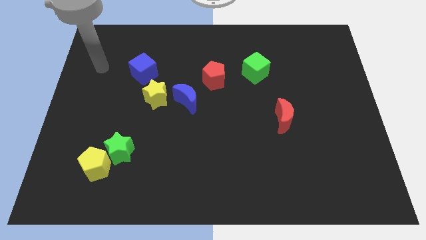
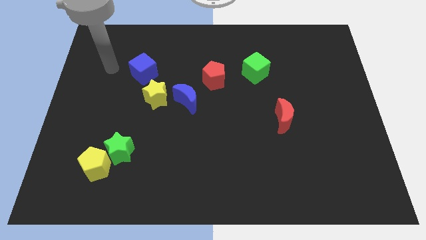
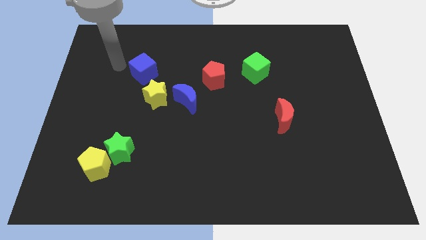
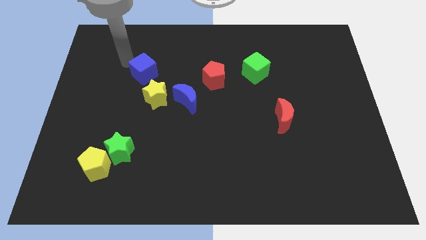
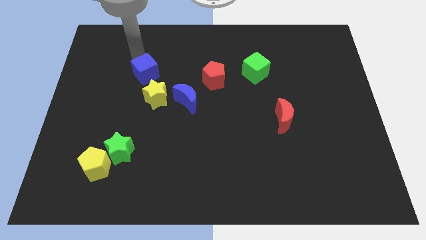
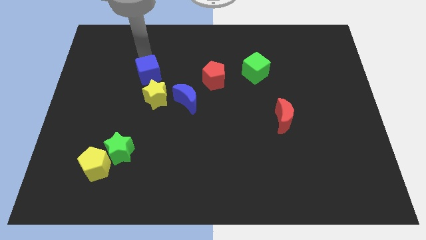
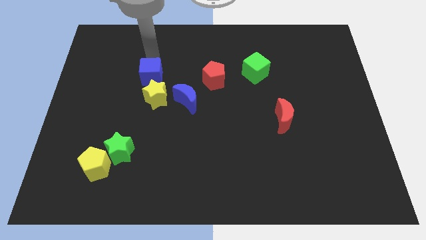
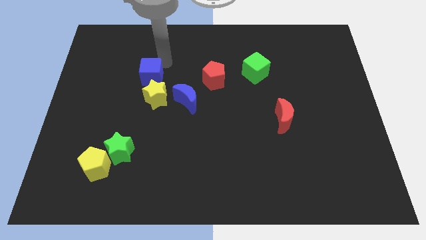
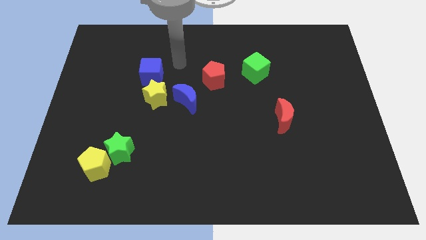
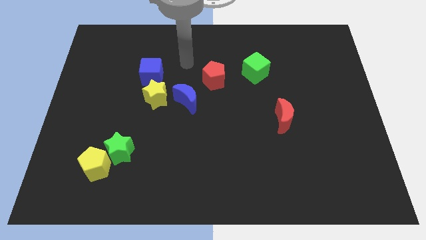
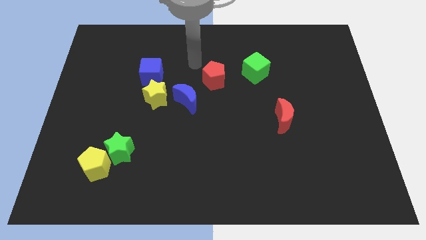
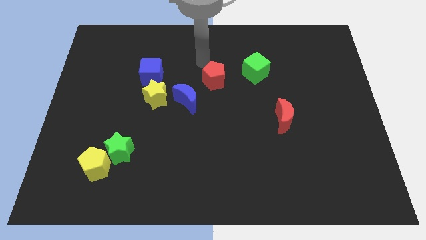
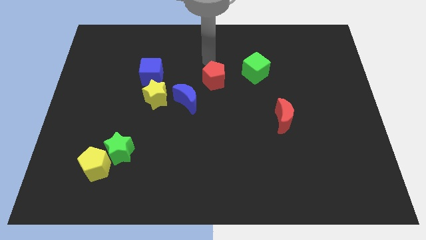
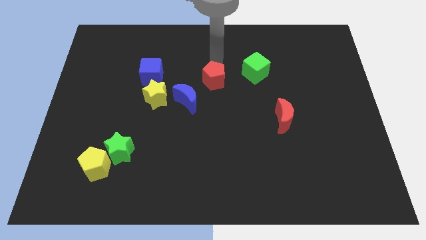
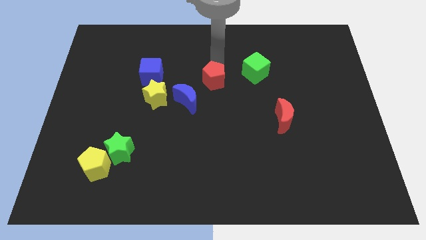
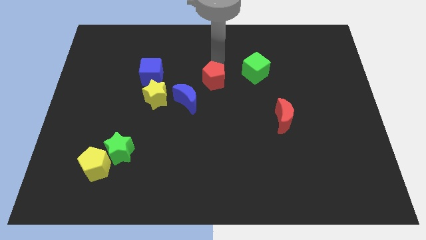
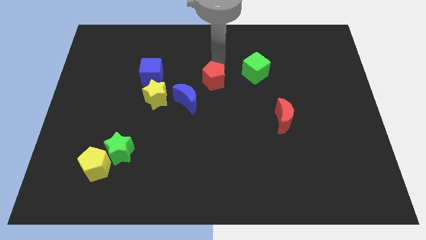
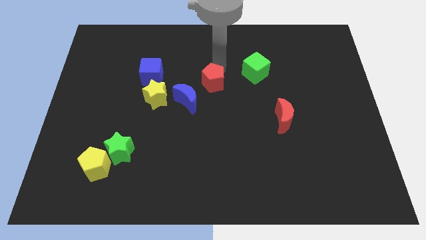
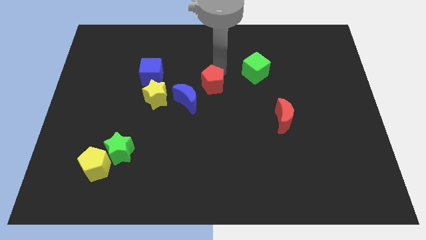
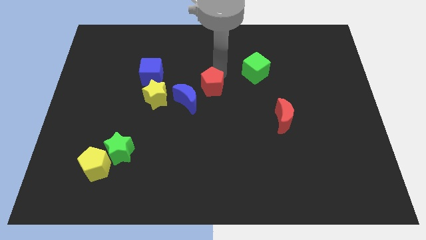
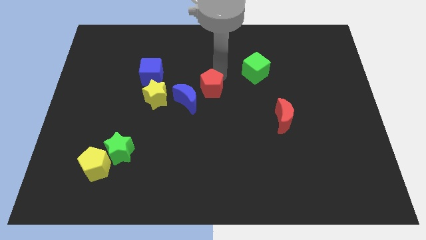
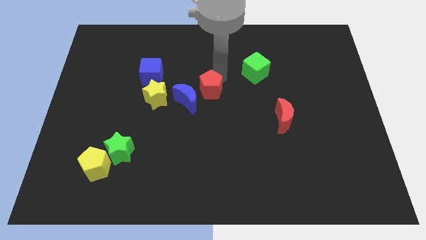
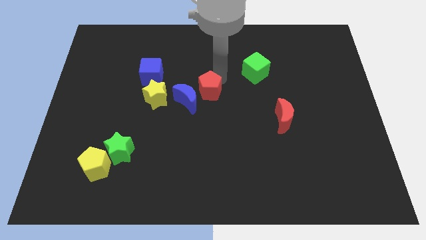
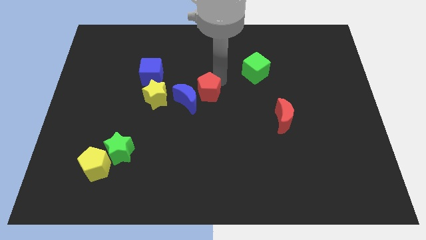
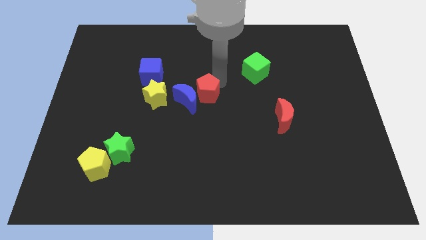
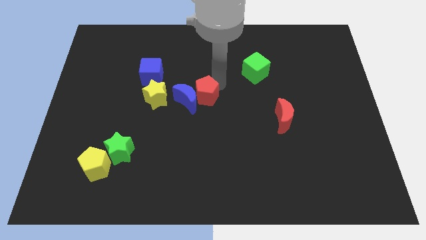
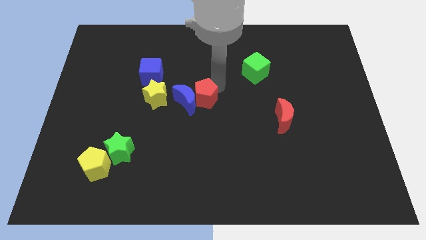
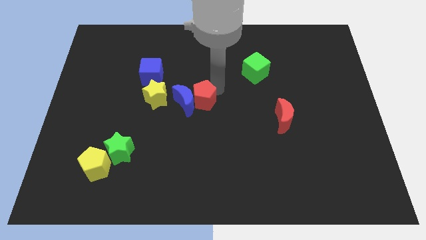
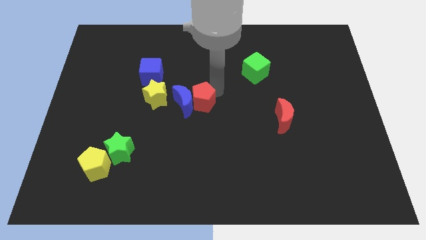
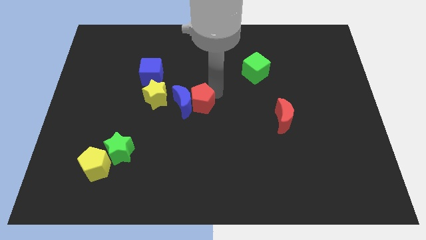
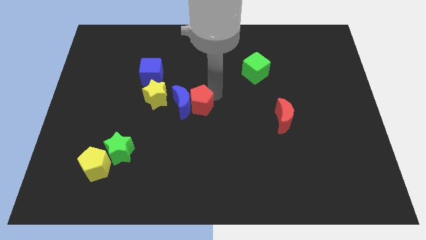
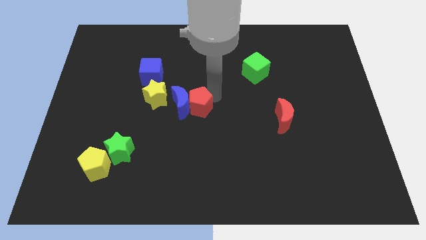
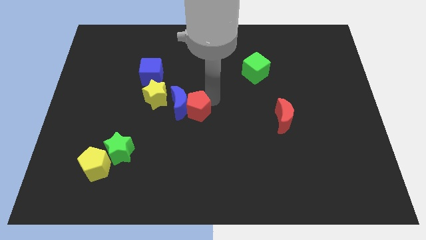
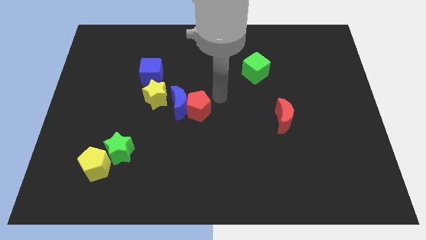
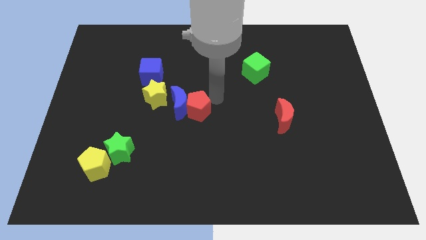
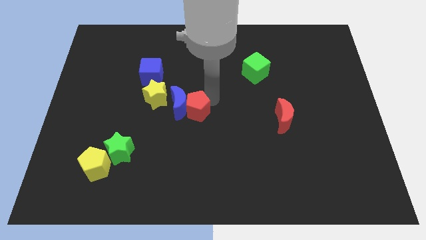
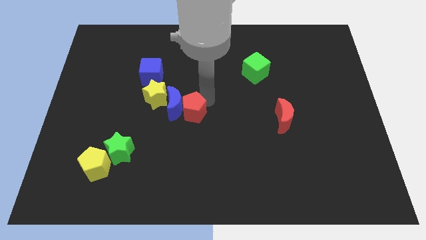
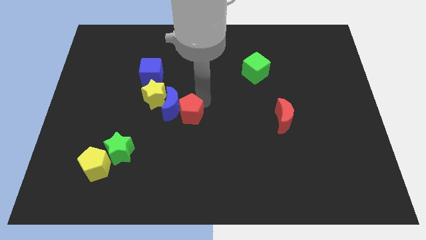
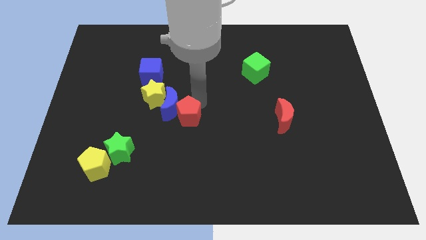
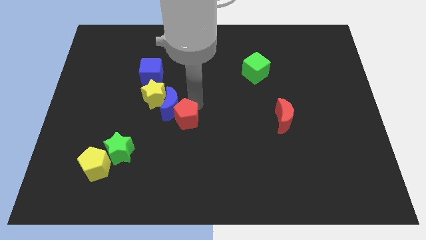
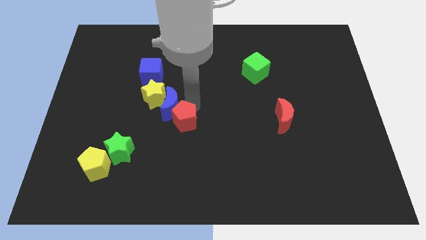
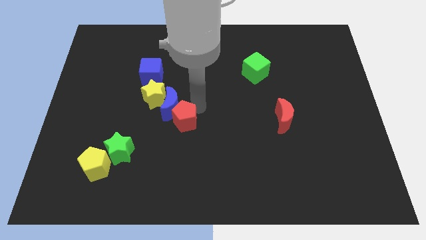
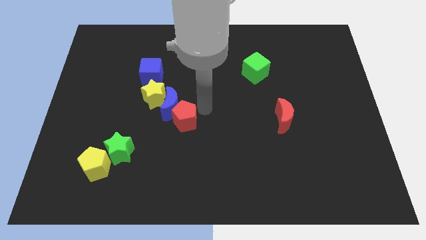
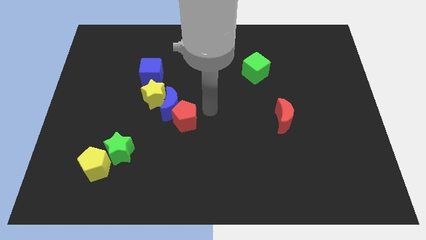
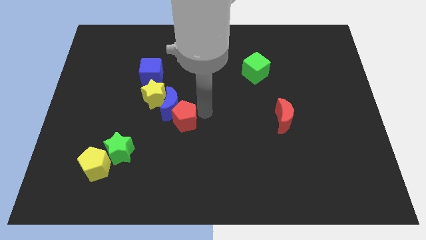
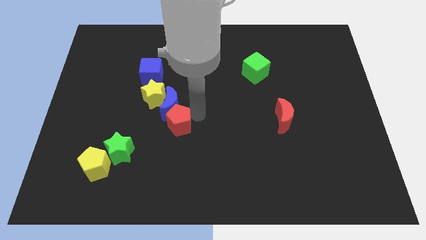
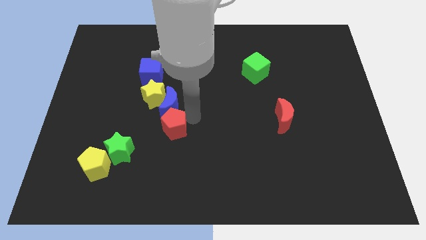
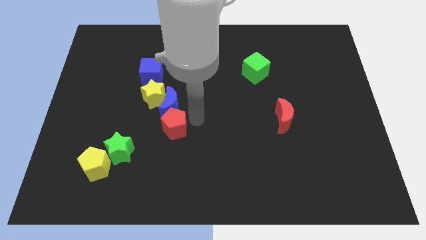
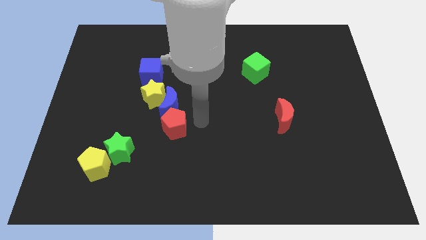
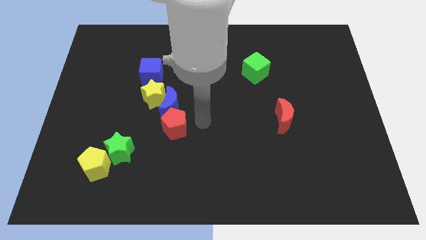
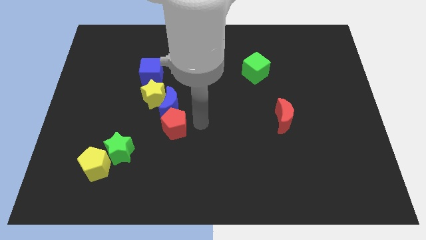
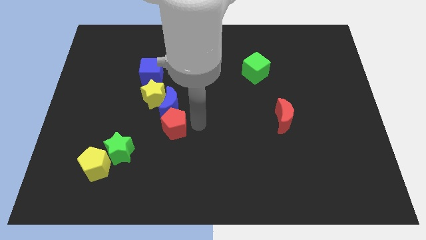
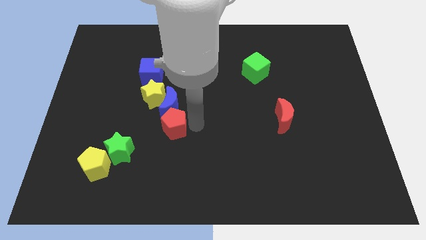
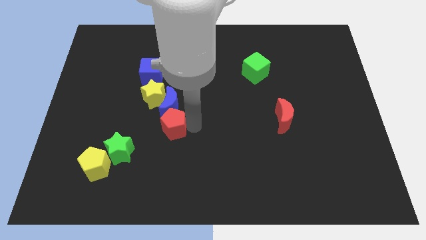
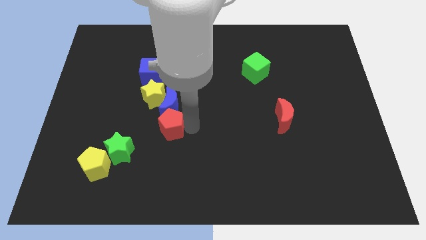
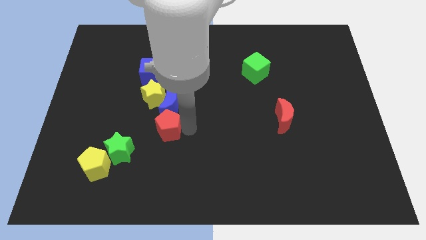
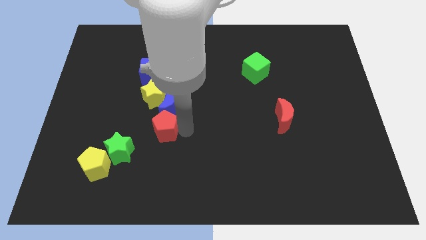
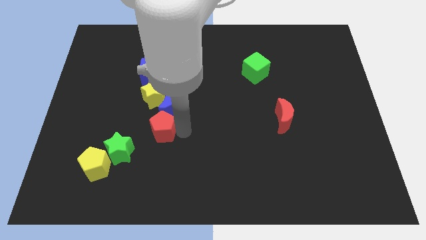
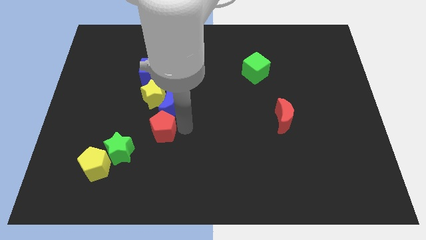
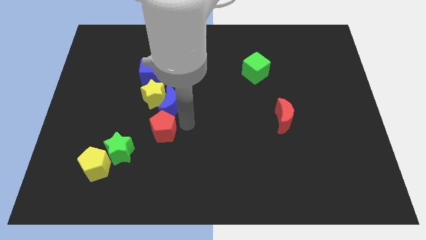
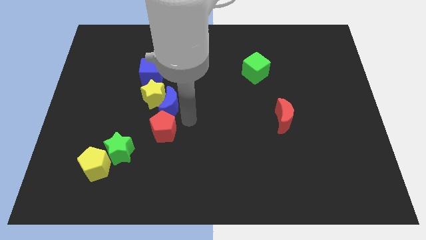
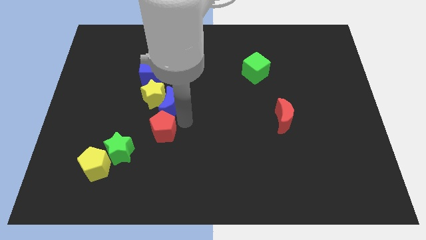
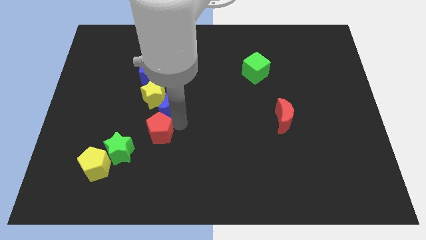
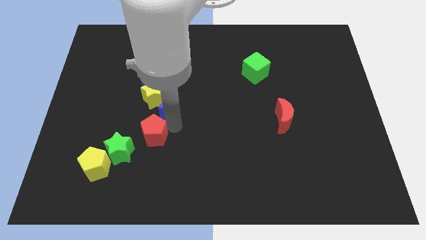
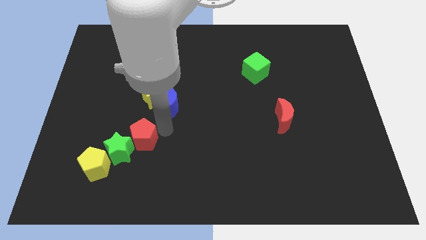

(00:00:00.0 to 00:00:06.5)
push the red pentagon towards the green star
